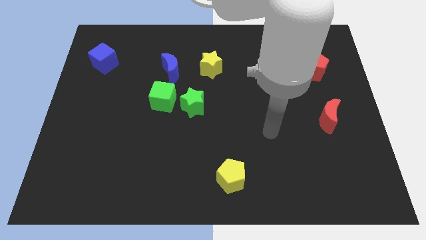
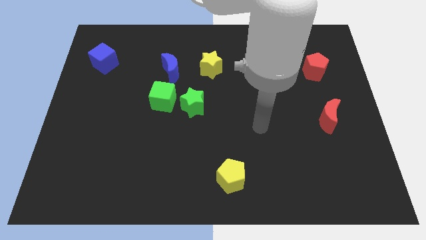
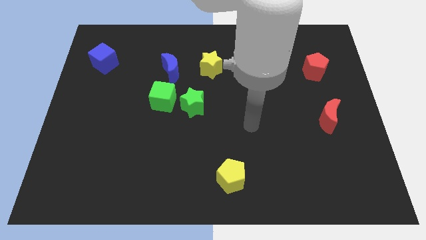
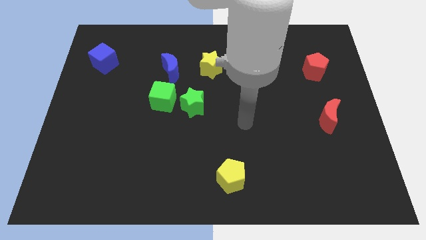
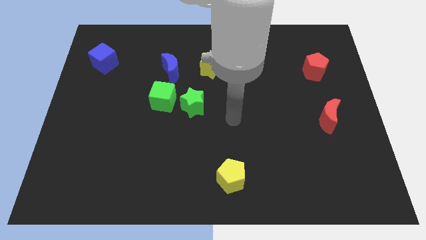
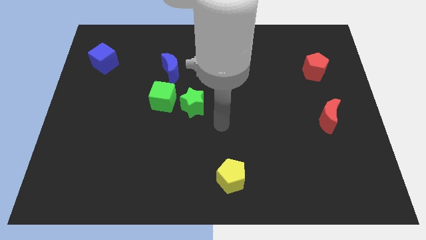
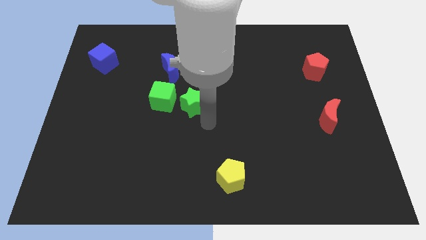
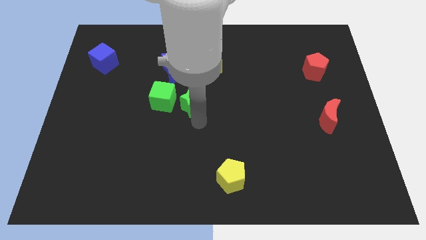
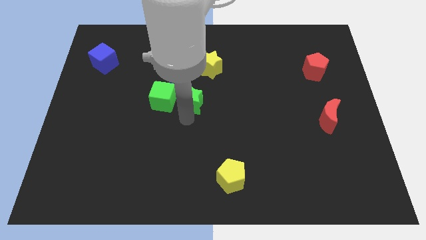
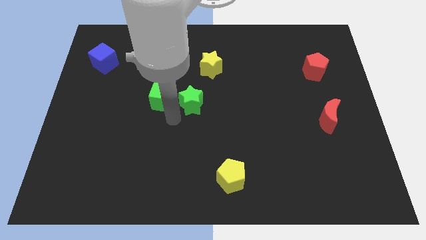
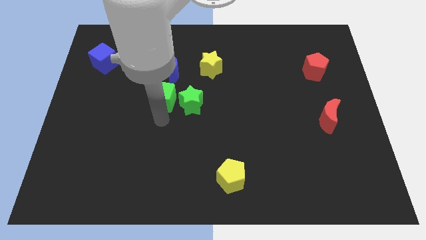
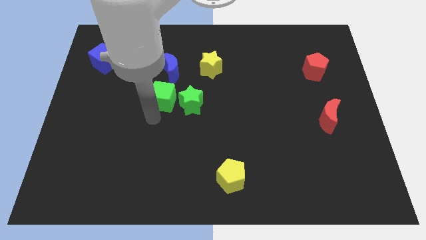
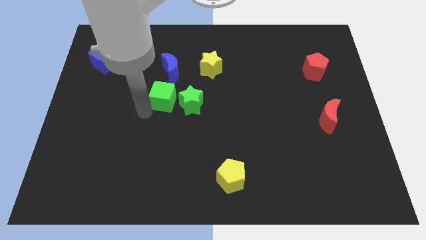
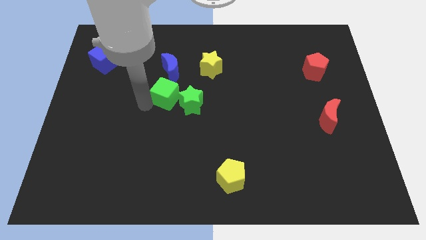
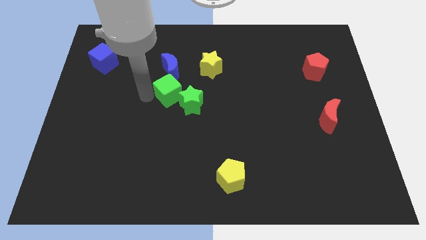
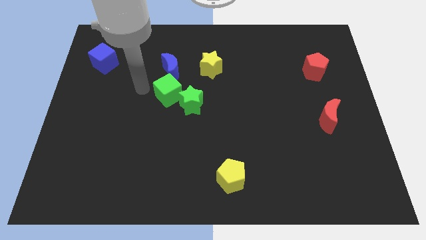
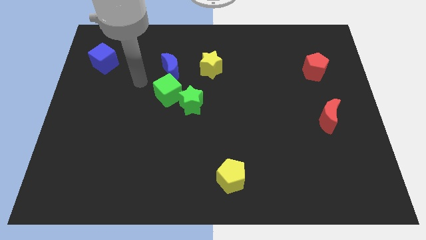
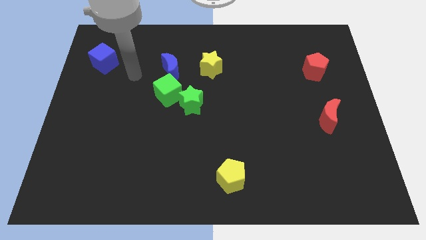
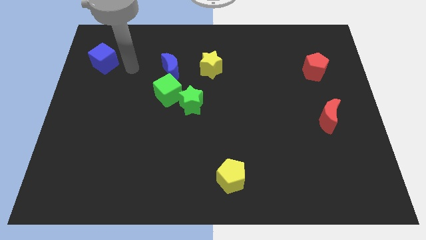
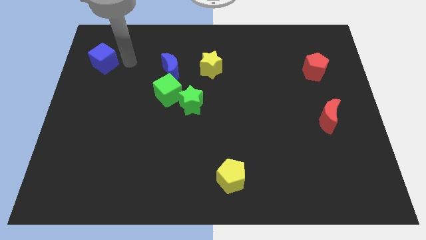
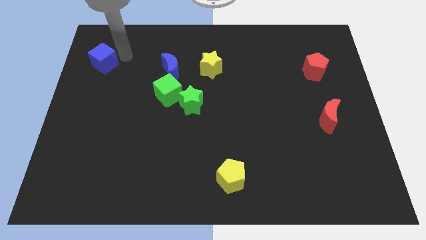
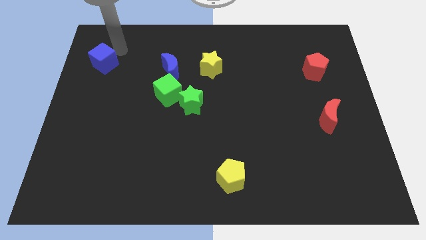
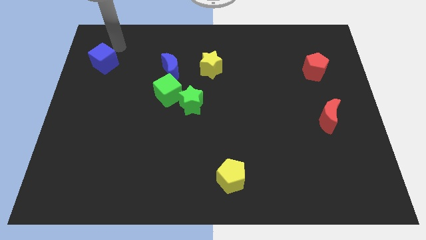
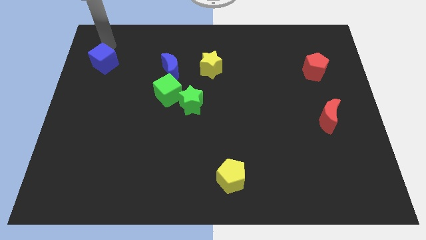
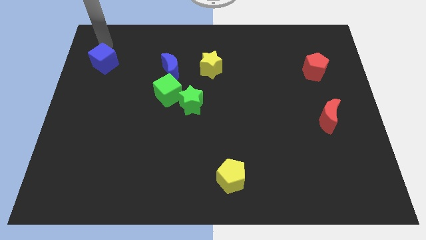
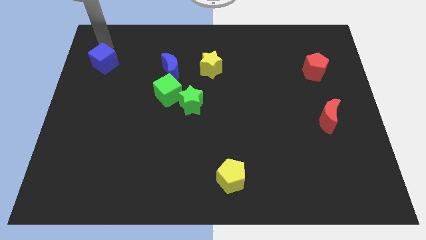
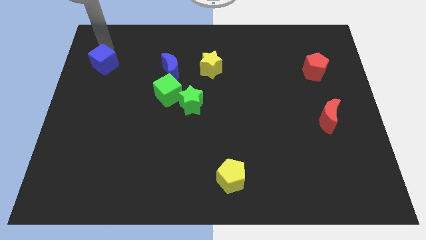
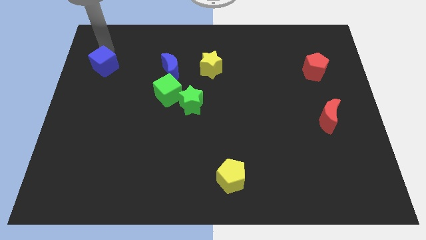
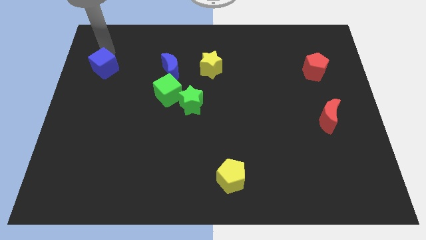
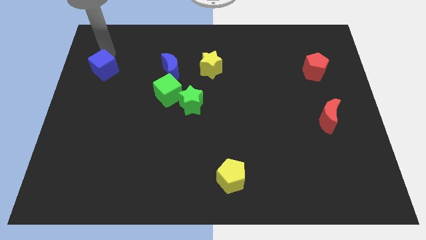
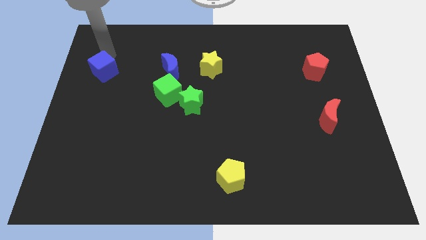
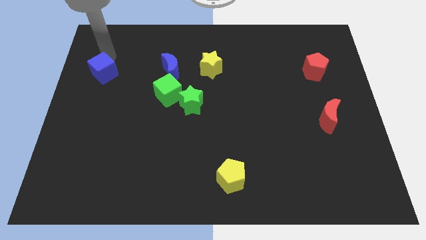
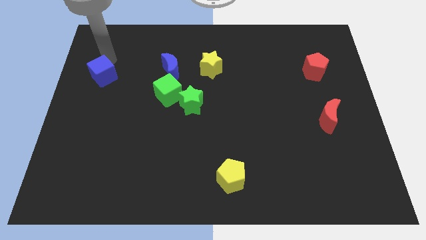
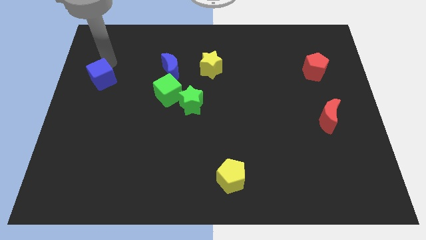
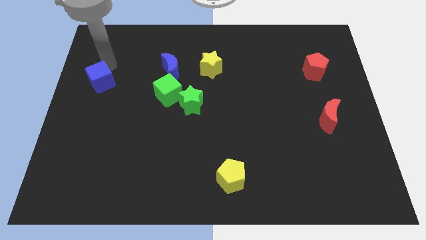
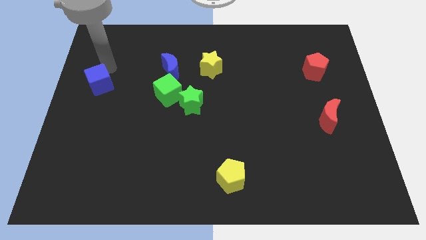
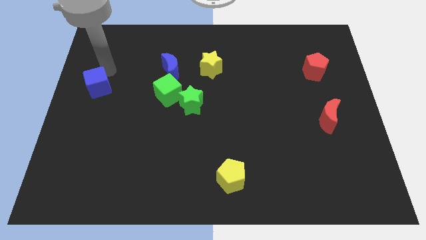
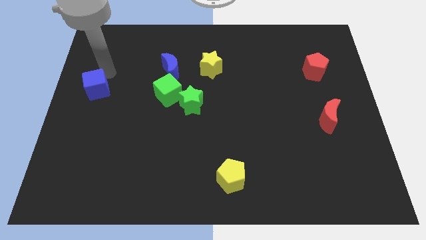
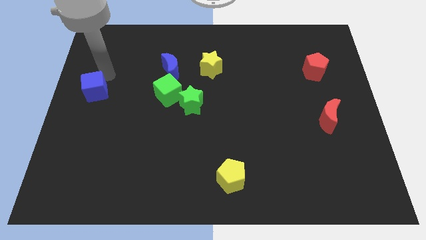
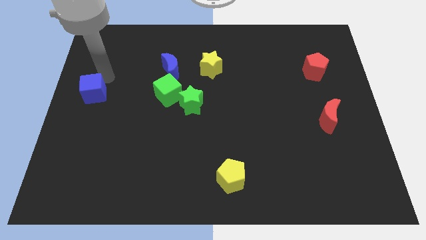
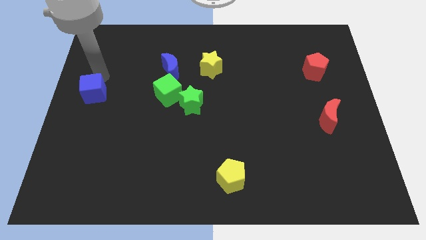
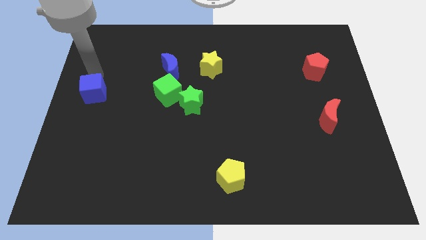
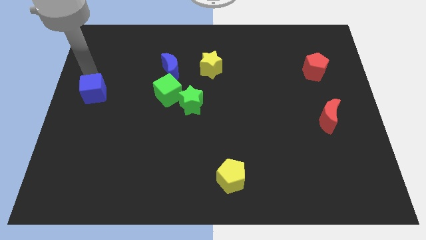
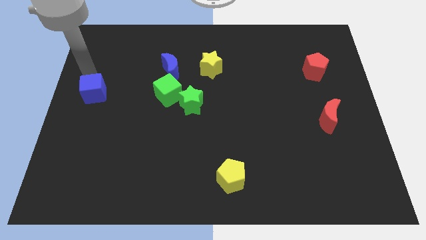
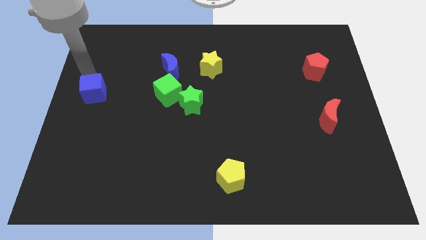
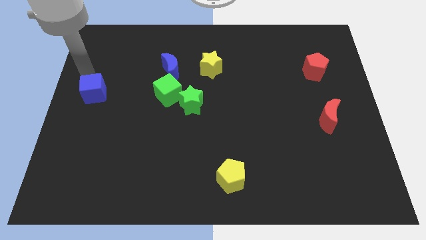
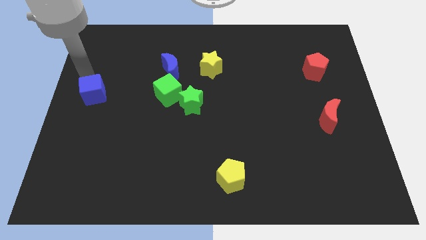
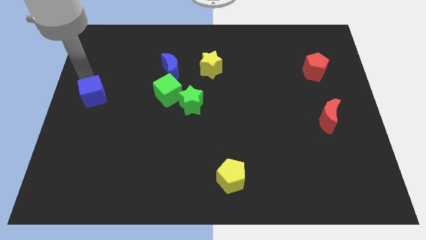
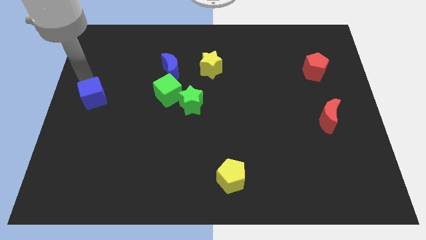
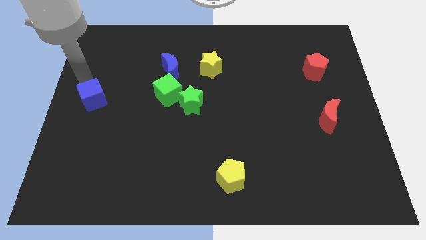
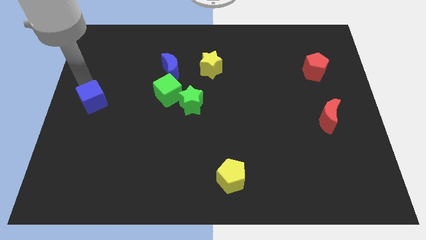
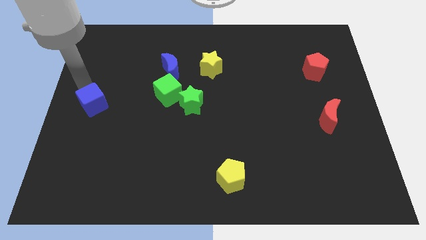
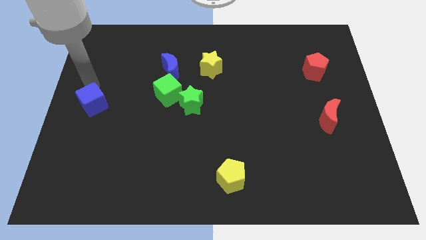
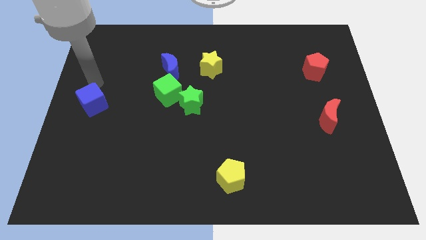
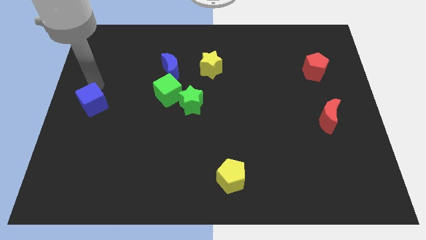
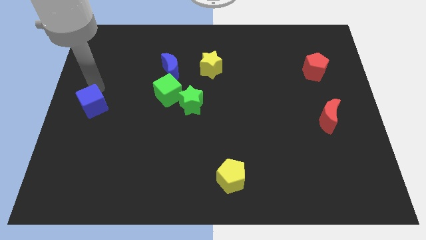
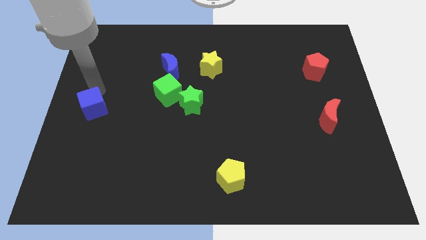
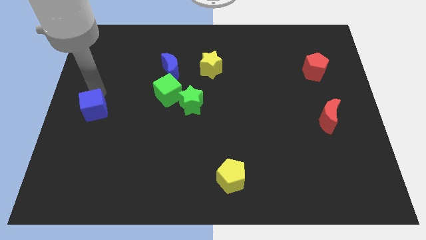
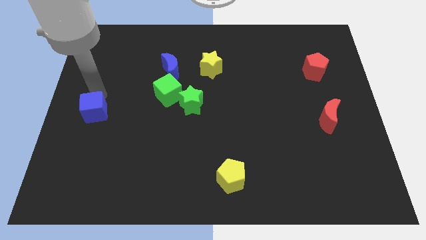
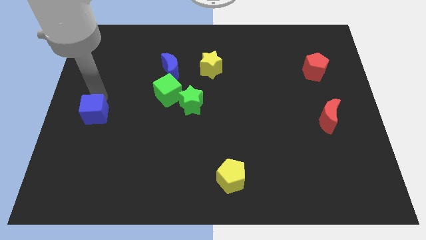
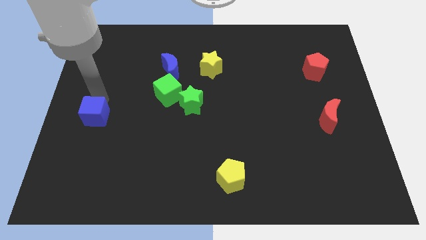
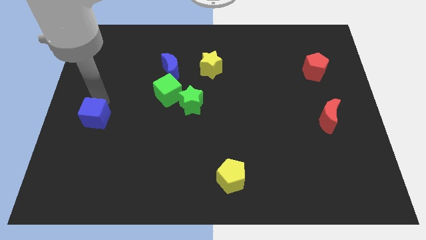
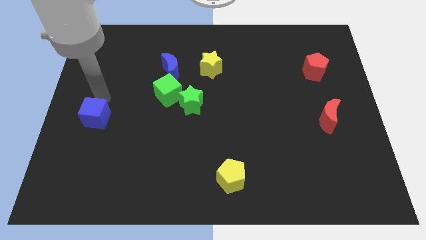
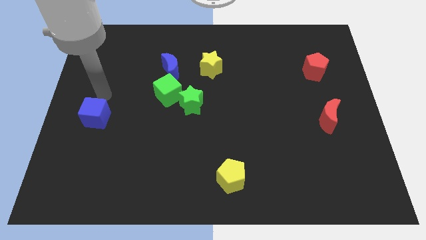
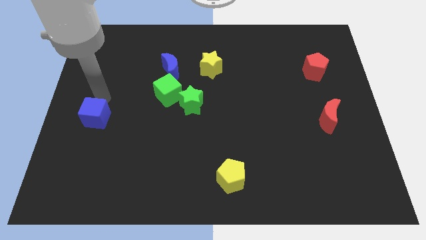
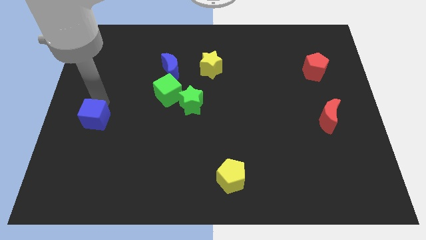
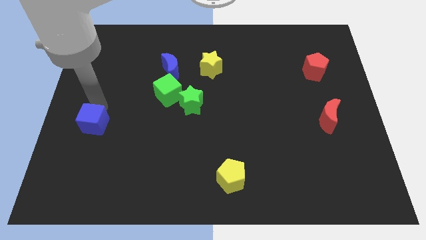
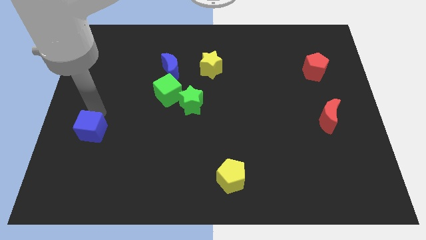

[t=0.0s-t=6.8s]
push the blue cube downwards

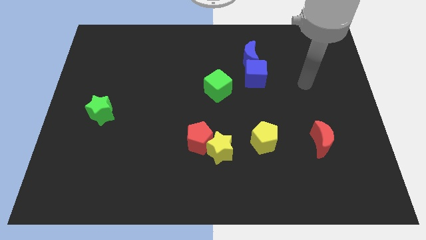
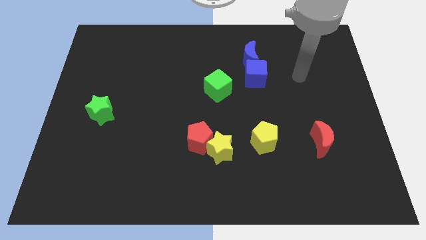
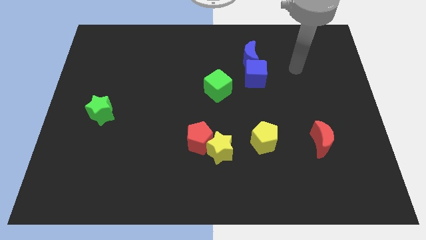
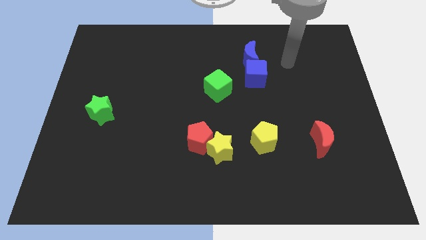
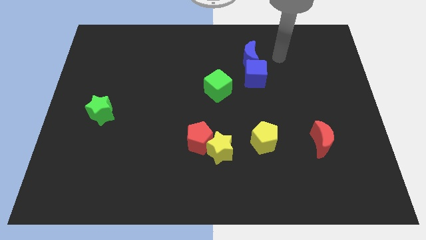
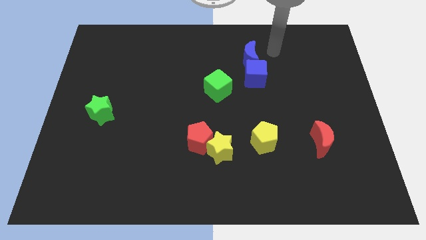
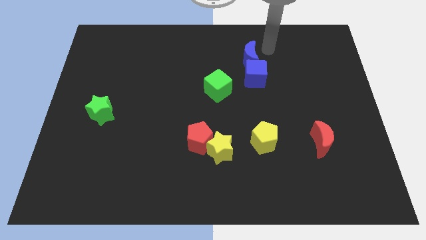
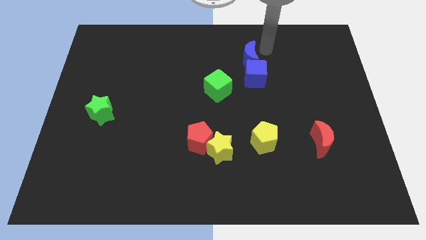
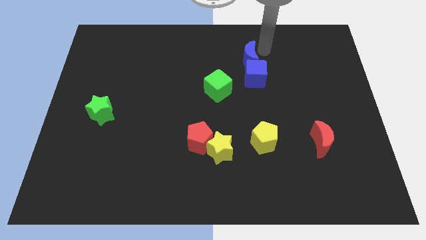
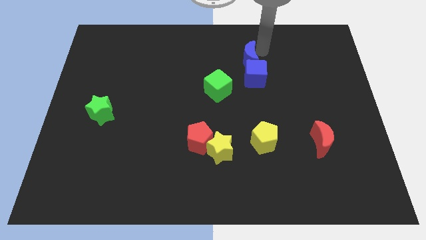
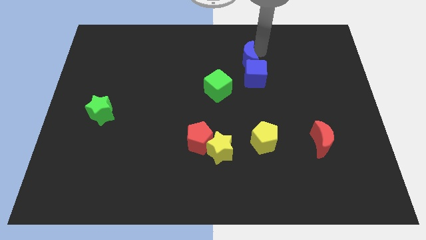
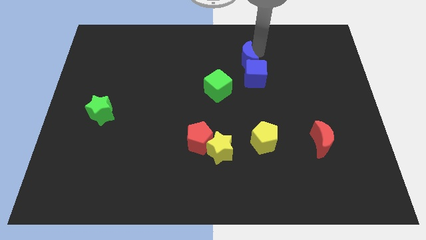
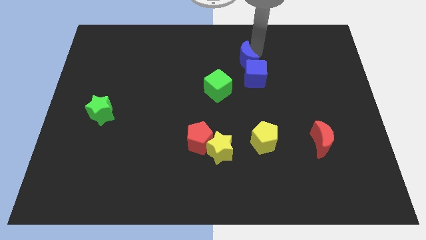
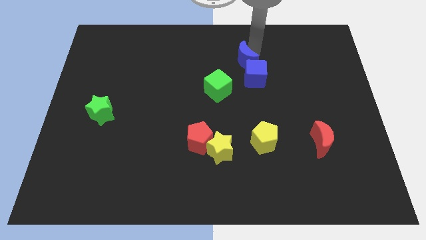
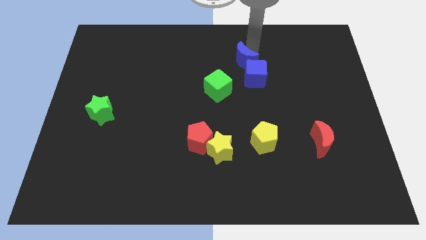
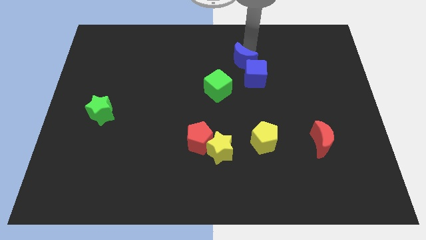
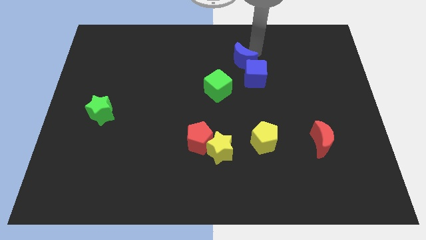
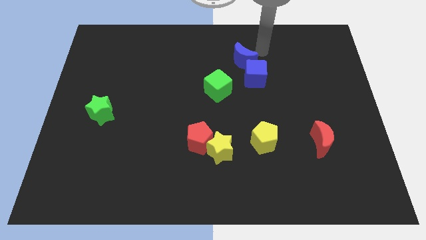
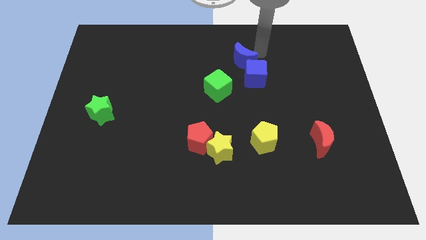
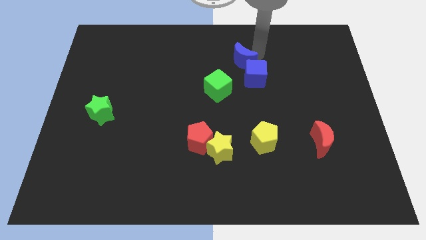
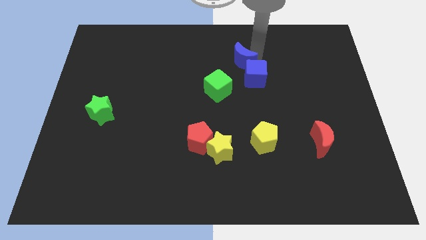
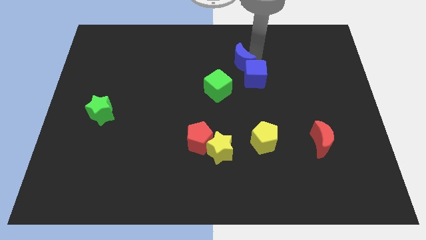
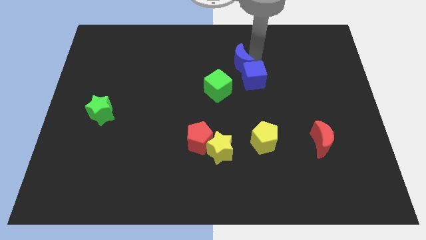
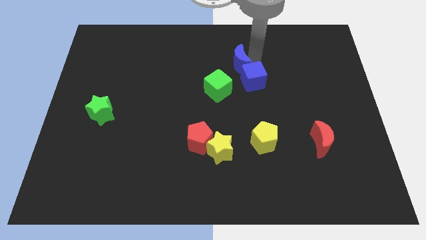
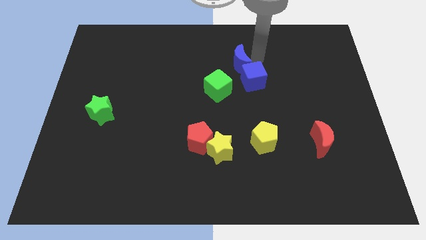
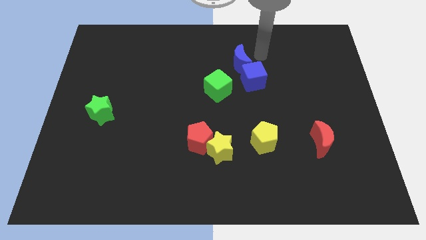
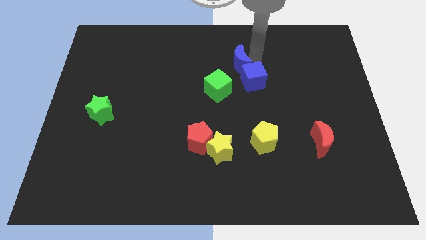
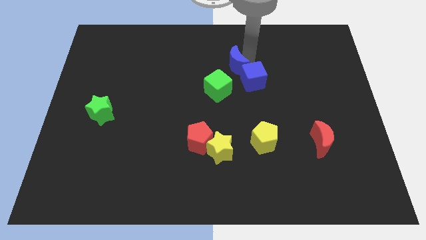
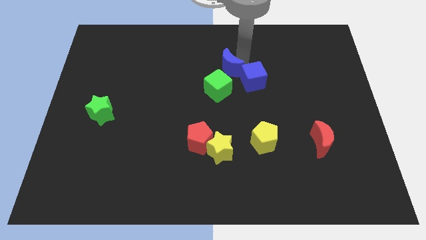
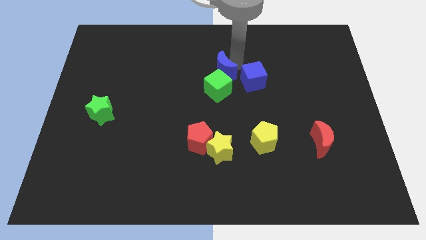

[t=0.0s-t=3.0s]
move the blue moon a bit diagonally down and left
